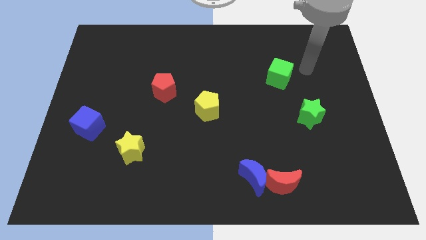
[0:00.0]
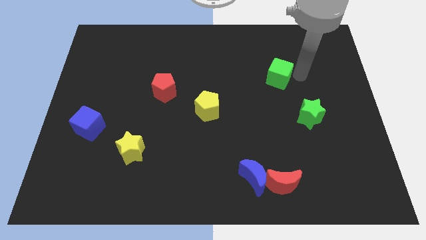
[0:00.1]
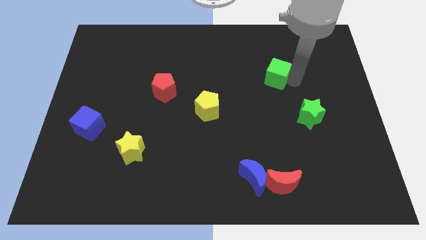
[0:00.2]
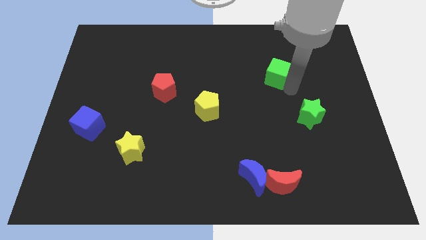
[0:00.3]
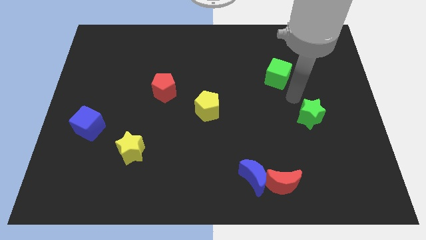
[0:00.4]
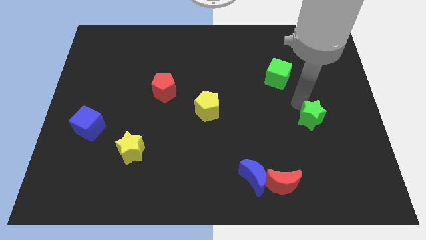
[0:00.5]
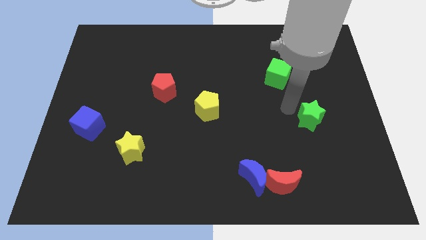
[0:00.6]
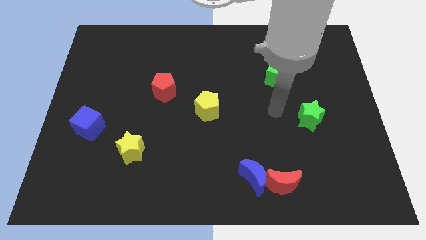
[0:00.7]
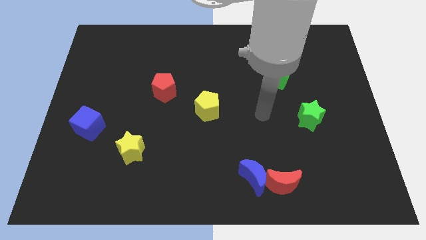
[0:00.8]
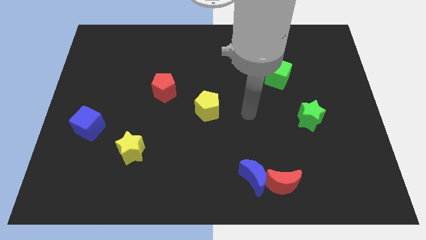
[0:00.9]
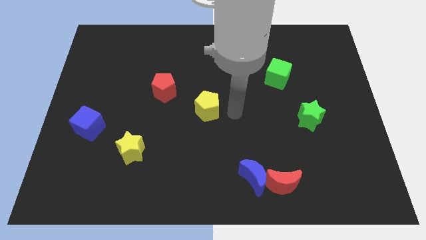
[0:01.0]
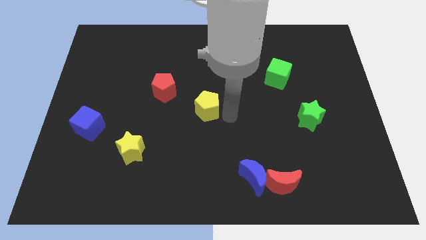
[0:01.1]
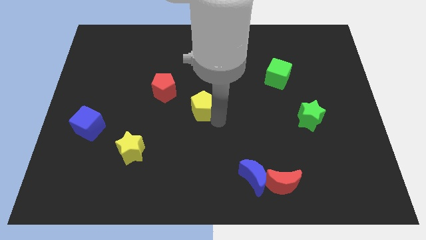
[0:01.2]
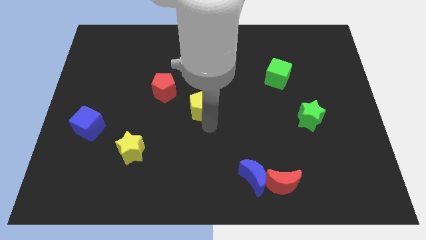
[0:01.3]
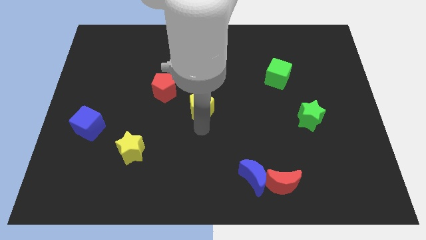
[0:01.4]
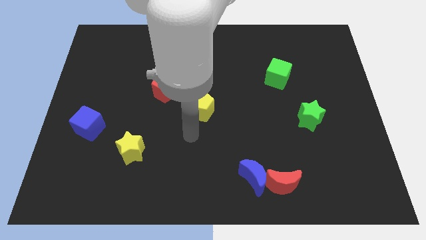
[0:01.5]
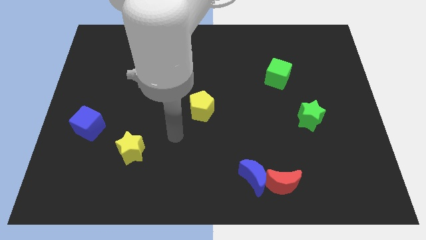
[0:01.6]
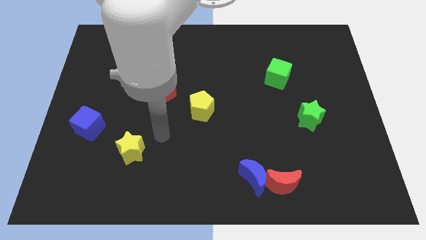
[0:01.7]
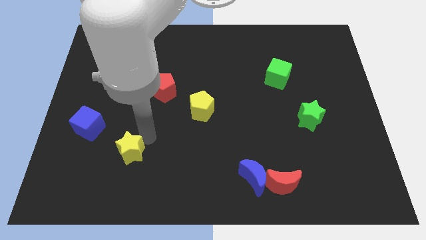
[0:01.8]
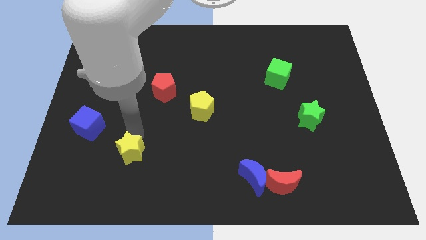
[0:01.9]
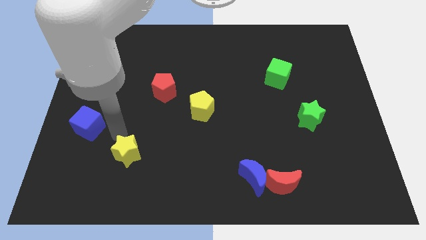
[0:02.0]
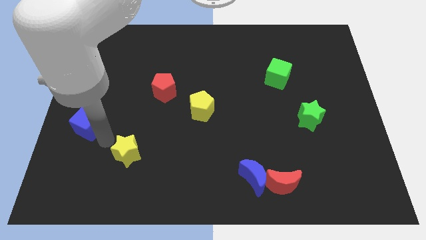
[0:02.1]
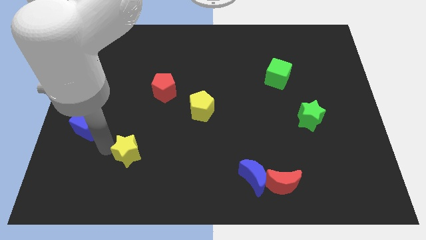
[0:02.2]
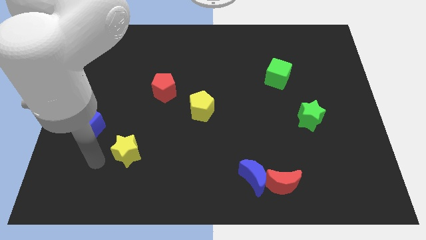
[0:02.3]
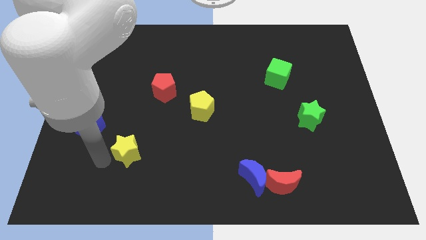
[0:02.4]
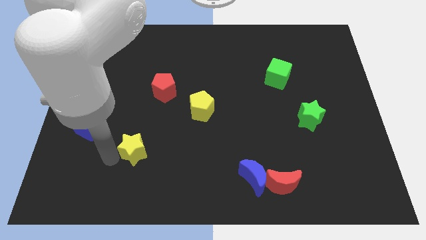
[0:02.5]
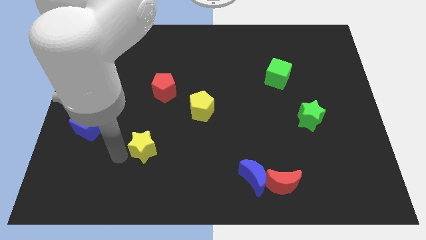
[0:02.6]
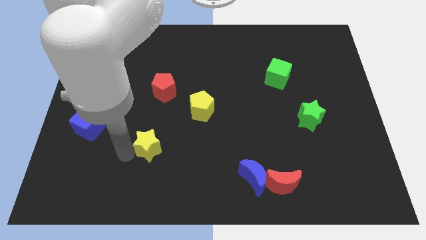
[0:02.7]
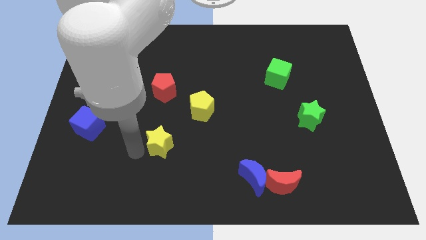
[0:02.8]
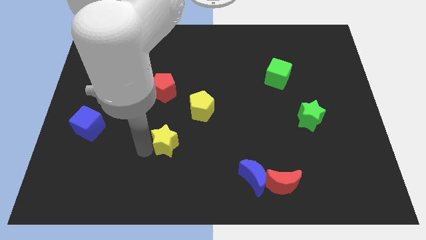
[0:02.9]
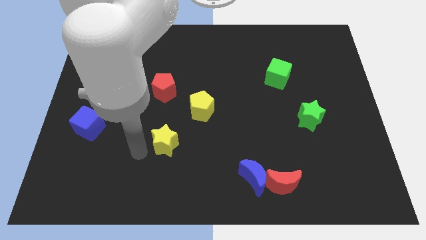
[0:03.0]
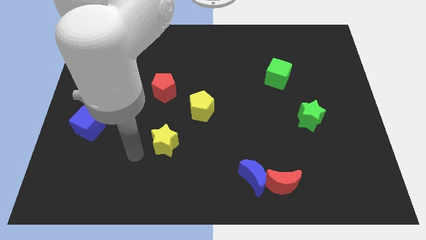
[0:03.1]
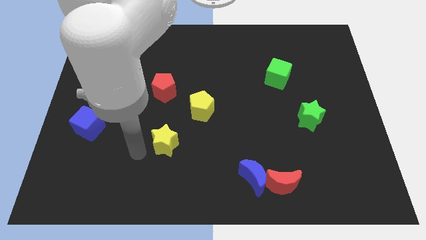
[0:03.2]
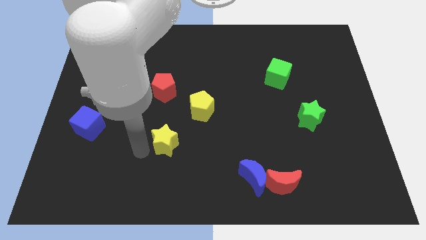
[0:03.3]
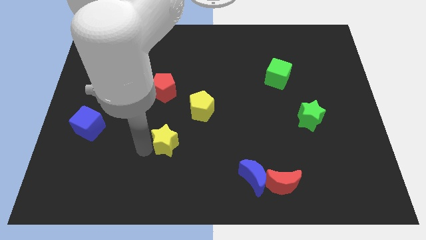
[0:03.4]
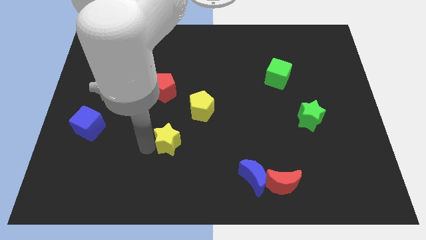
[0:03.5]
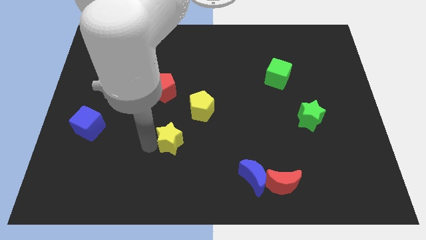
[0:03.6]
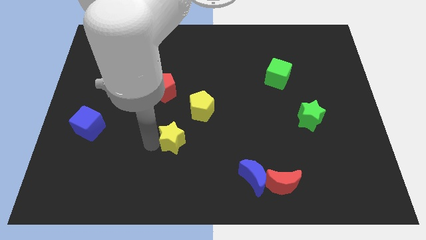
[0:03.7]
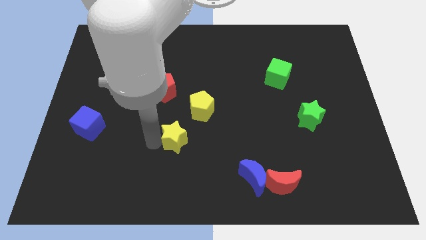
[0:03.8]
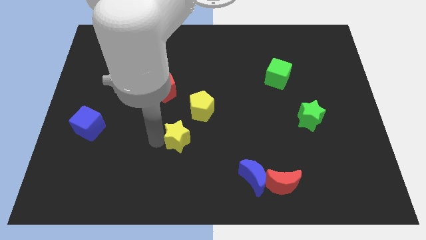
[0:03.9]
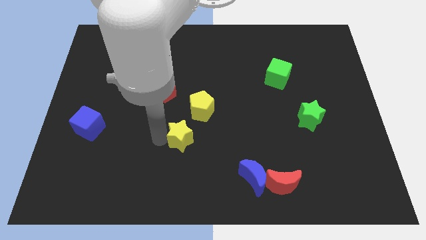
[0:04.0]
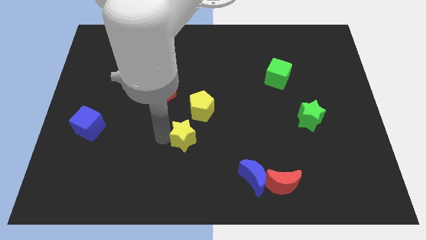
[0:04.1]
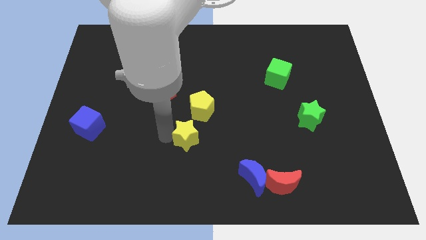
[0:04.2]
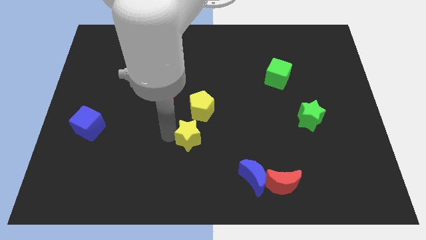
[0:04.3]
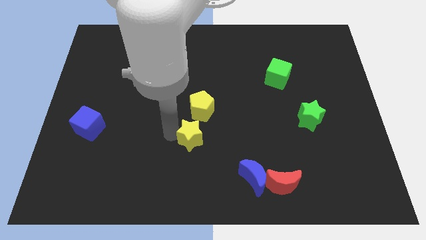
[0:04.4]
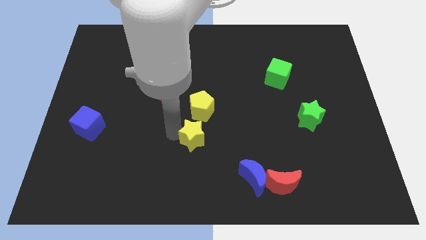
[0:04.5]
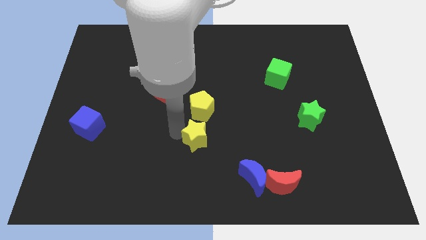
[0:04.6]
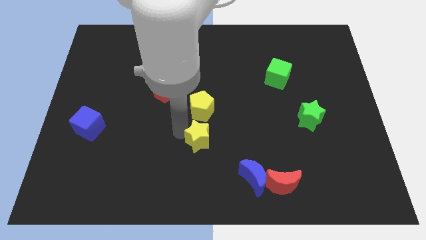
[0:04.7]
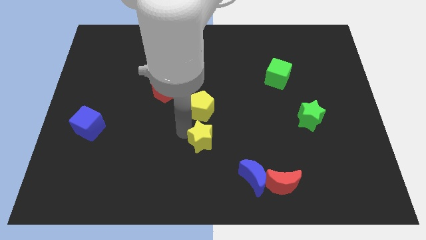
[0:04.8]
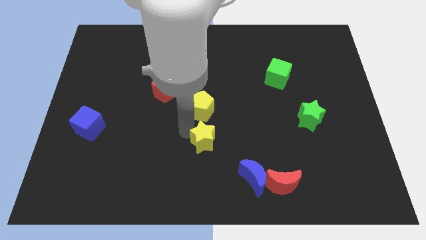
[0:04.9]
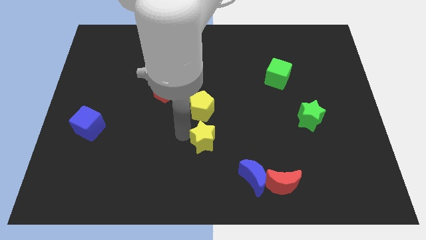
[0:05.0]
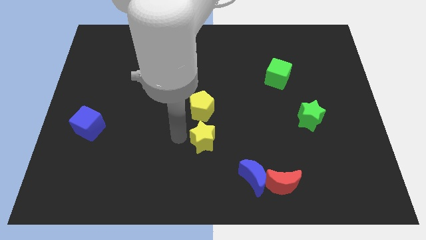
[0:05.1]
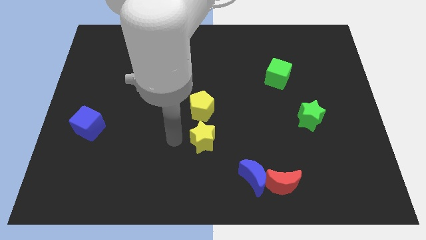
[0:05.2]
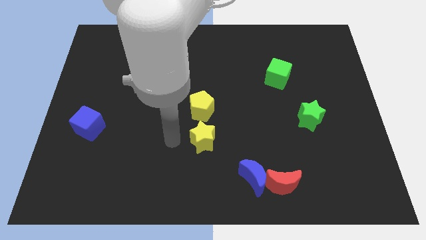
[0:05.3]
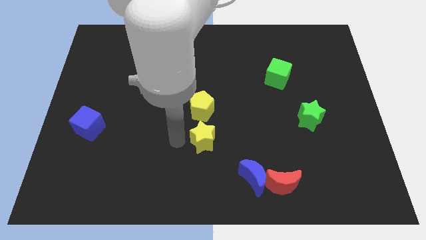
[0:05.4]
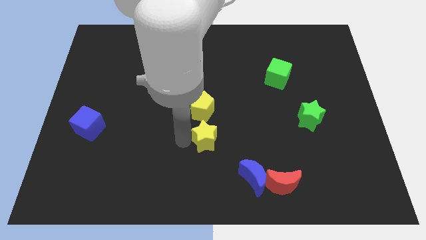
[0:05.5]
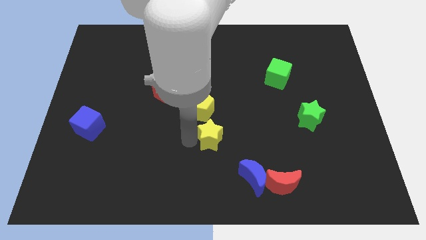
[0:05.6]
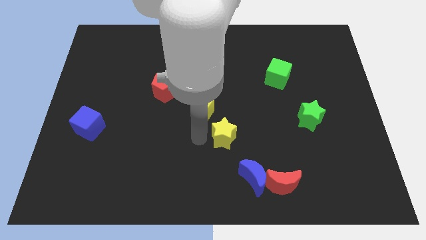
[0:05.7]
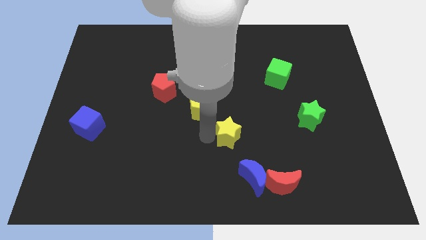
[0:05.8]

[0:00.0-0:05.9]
move the yellow star to the right

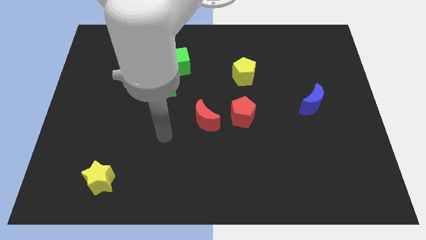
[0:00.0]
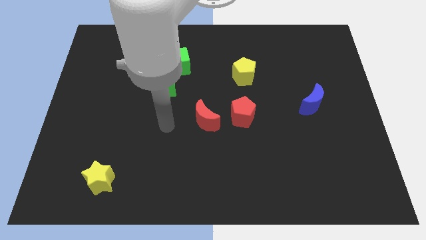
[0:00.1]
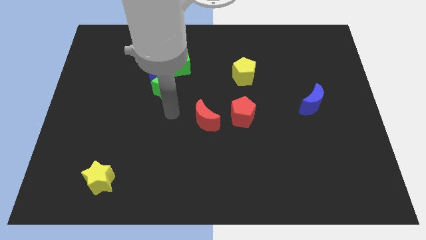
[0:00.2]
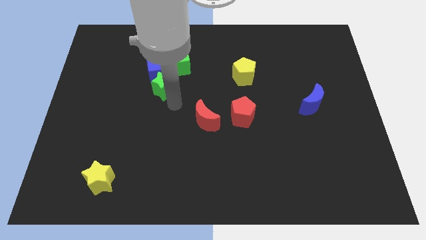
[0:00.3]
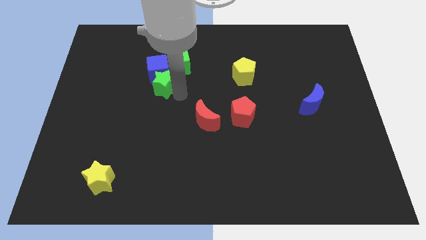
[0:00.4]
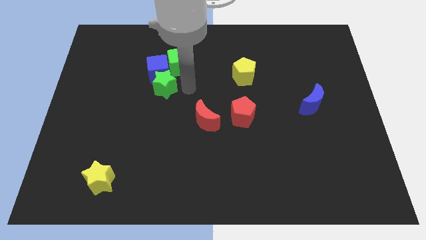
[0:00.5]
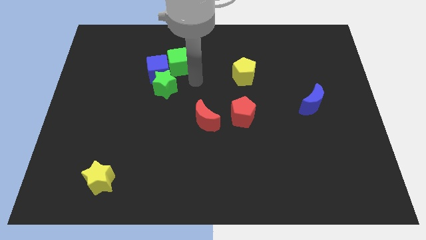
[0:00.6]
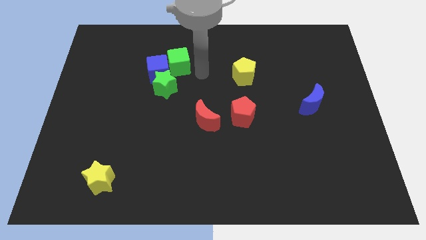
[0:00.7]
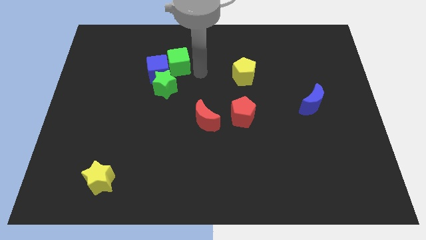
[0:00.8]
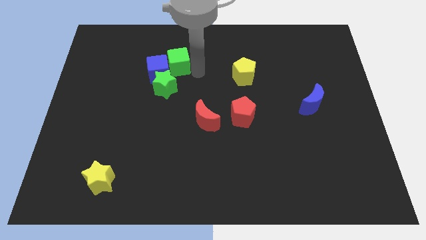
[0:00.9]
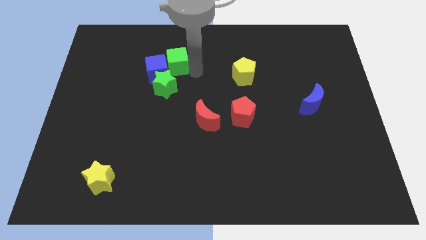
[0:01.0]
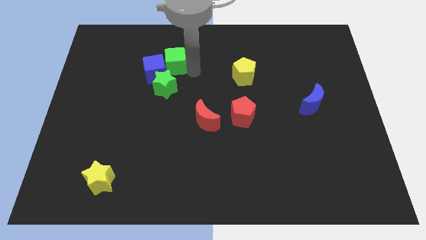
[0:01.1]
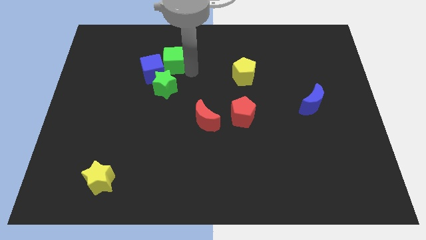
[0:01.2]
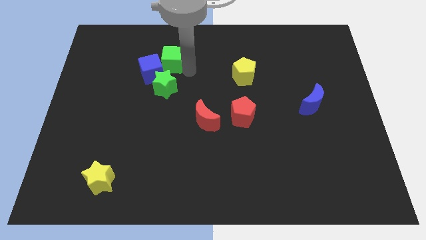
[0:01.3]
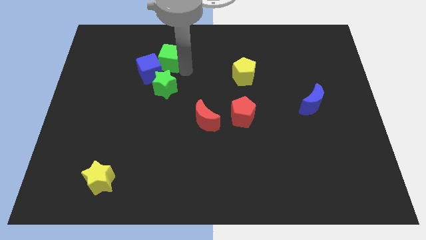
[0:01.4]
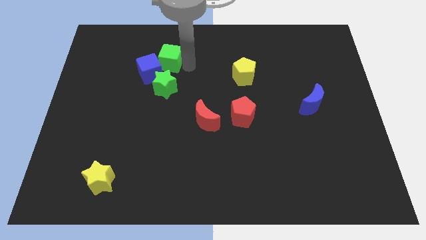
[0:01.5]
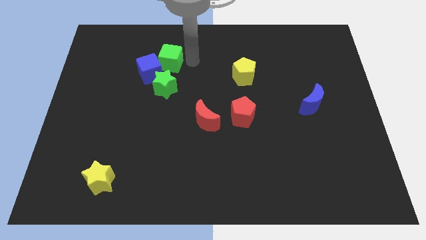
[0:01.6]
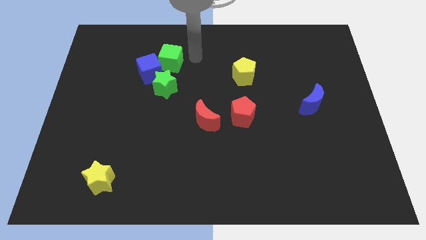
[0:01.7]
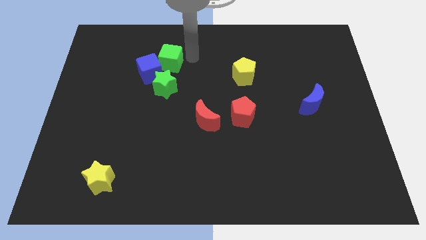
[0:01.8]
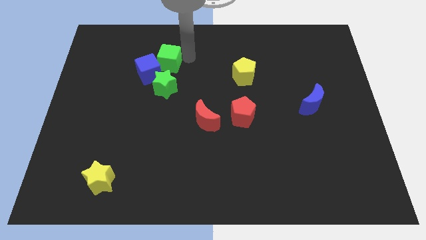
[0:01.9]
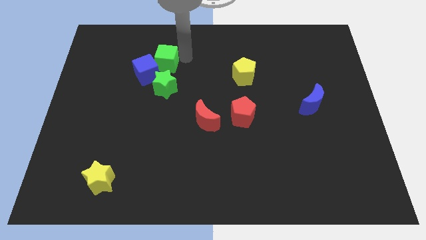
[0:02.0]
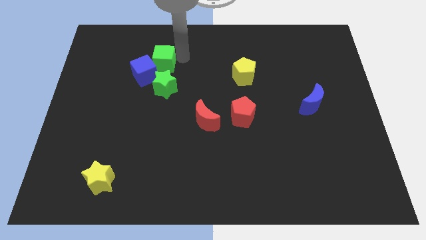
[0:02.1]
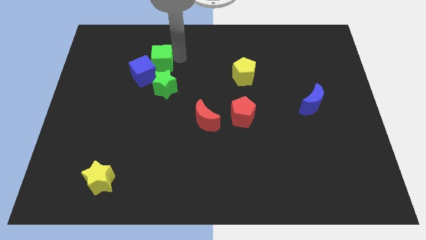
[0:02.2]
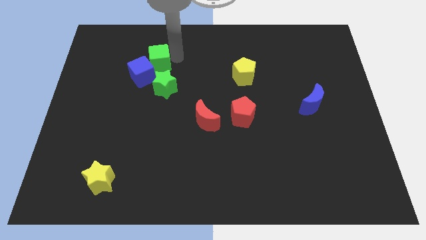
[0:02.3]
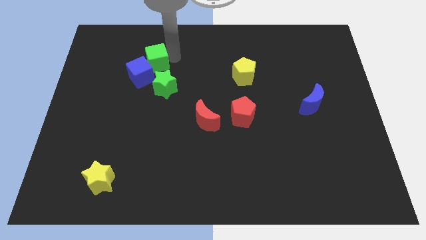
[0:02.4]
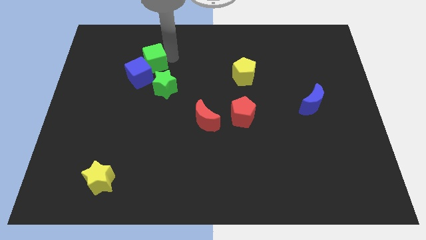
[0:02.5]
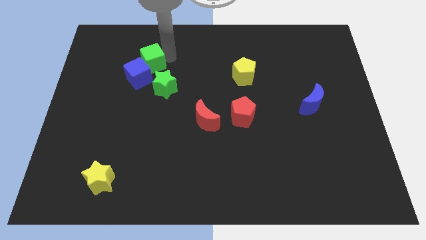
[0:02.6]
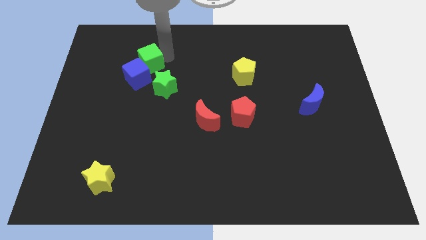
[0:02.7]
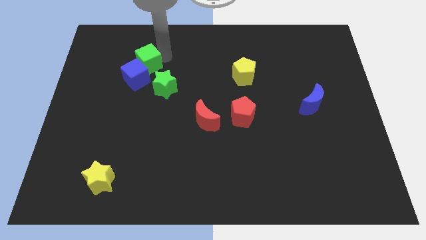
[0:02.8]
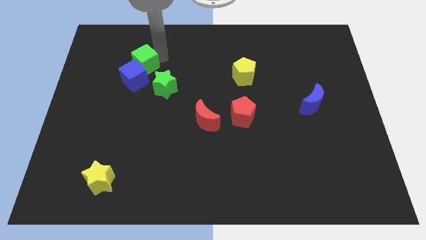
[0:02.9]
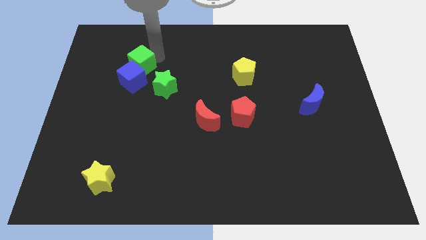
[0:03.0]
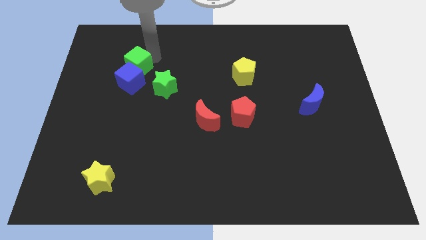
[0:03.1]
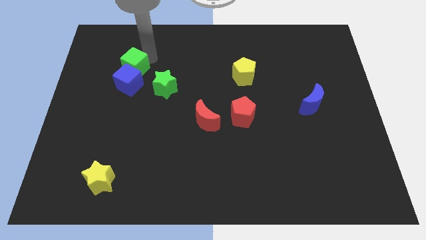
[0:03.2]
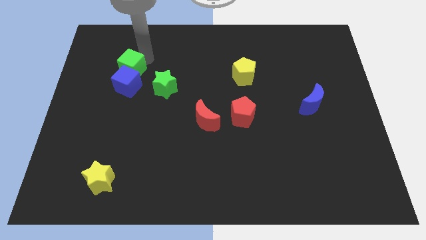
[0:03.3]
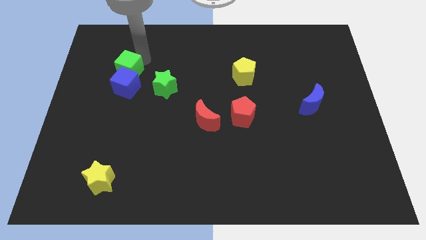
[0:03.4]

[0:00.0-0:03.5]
slide the green cube a bit downwards and to the left diagonally
